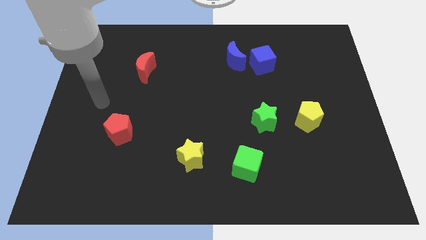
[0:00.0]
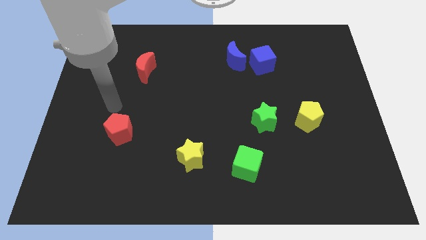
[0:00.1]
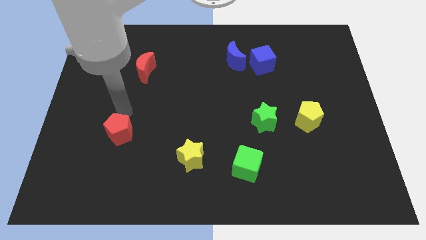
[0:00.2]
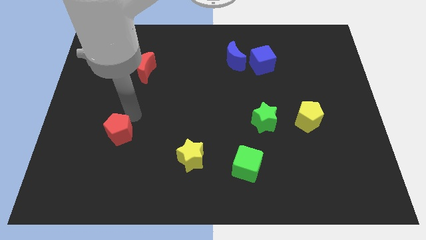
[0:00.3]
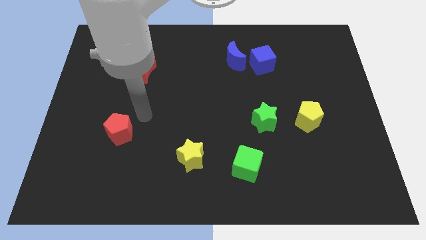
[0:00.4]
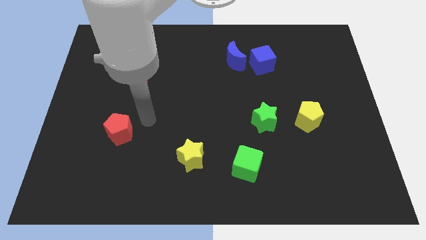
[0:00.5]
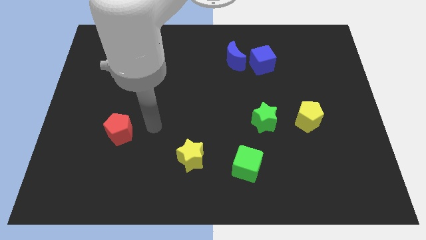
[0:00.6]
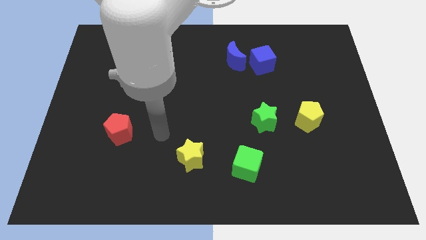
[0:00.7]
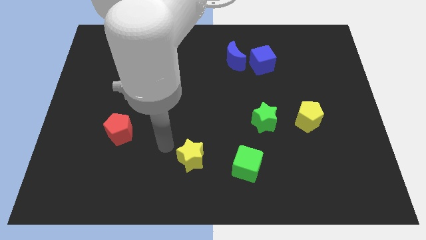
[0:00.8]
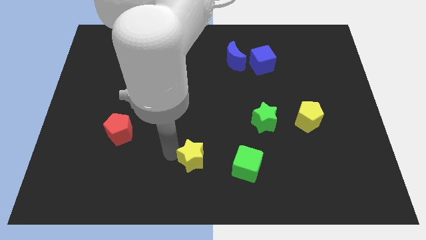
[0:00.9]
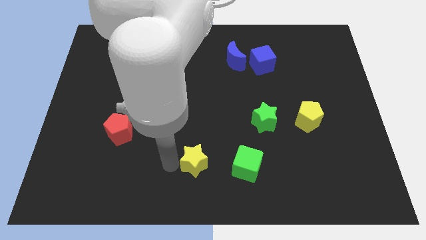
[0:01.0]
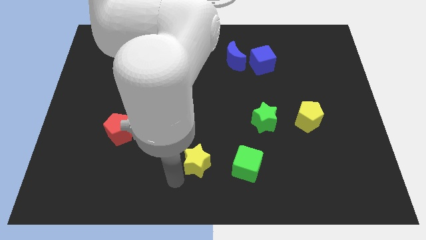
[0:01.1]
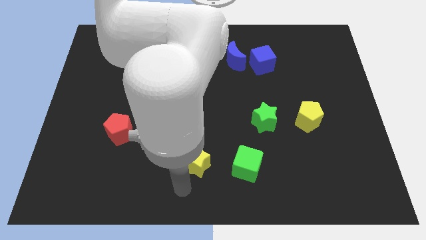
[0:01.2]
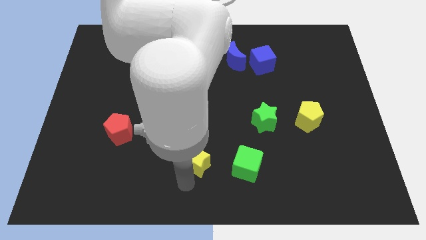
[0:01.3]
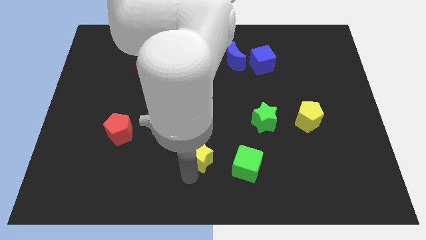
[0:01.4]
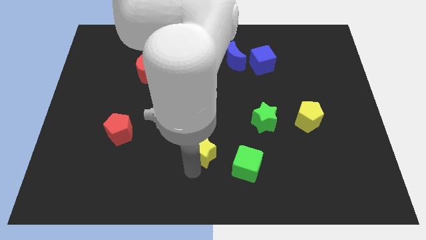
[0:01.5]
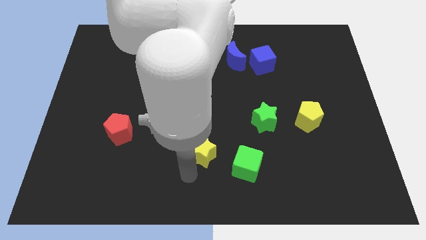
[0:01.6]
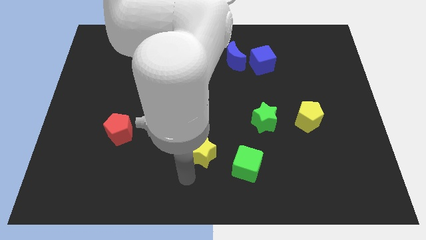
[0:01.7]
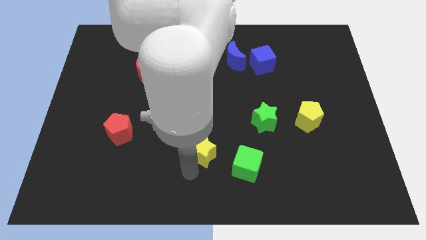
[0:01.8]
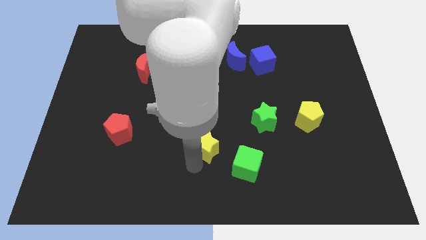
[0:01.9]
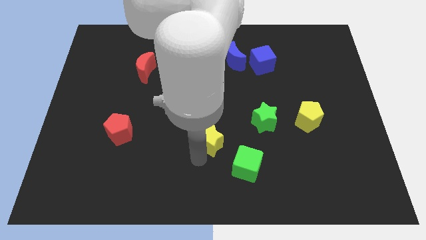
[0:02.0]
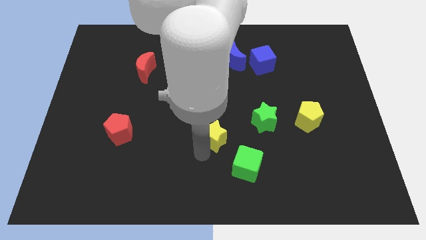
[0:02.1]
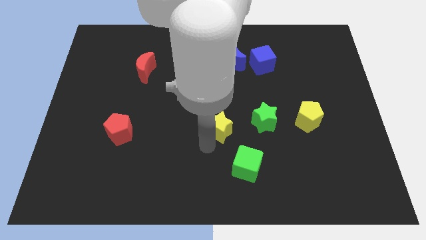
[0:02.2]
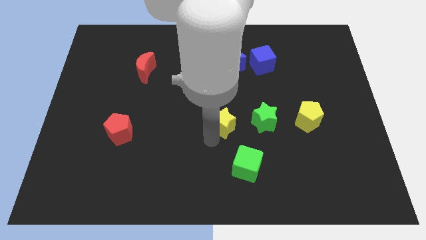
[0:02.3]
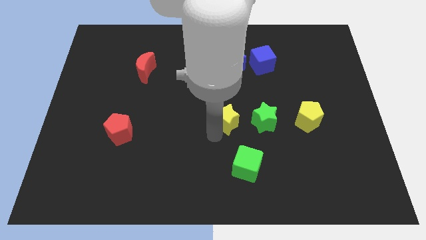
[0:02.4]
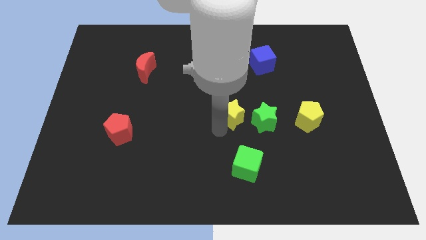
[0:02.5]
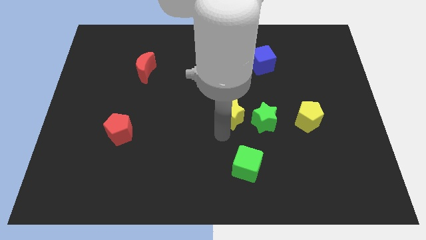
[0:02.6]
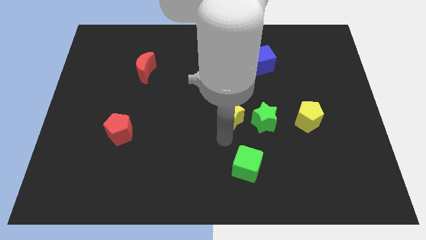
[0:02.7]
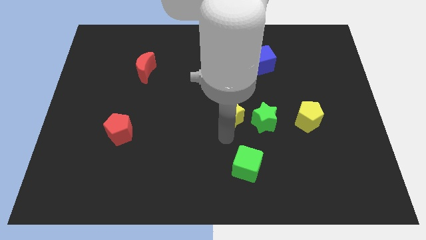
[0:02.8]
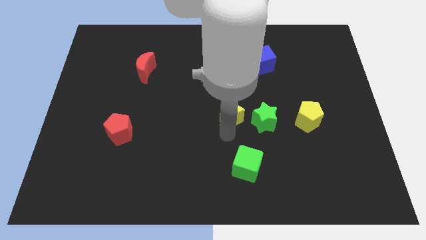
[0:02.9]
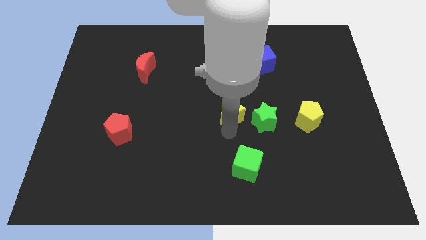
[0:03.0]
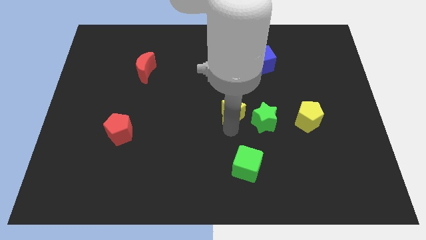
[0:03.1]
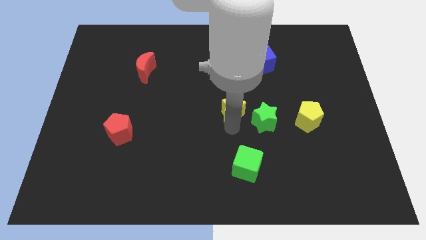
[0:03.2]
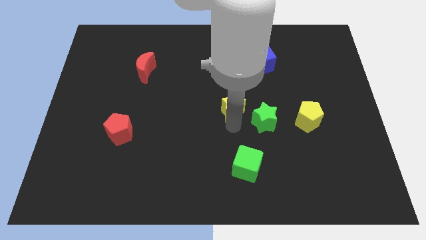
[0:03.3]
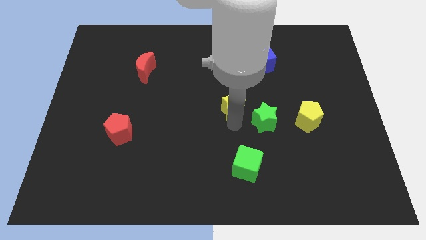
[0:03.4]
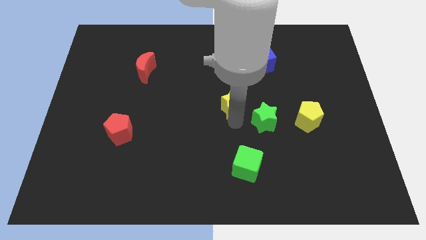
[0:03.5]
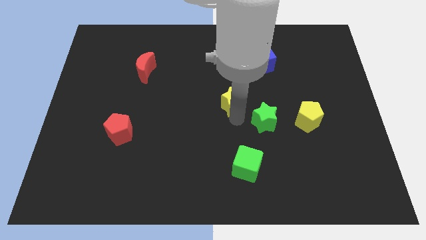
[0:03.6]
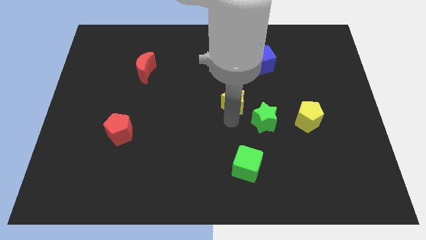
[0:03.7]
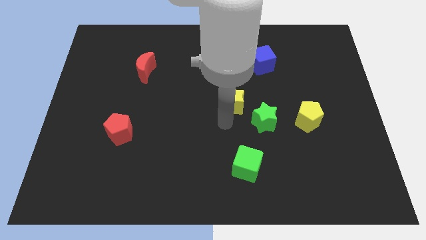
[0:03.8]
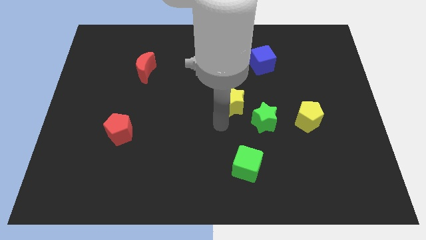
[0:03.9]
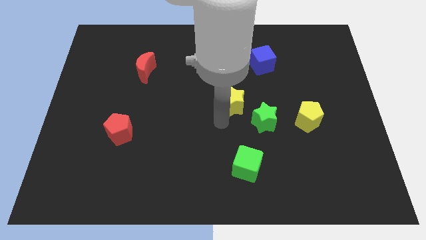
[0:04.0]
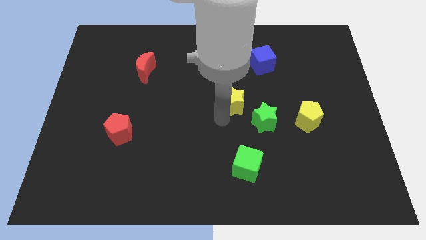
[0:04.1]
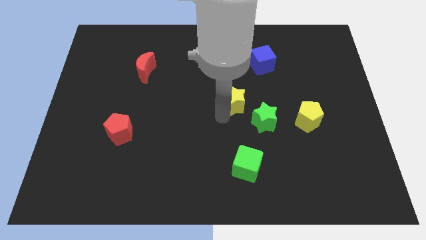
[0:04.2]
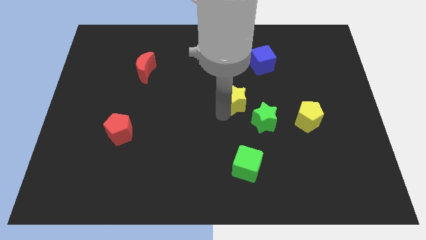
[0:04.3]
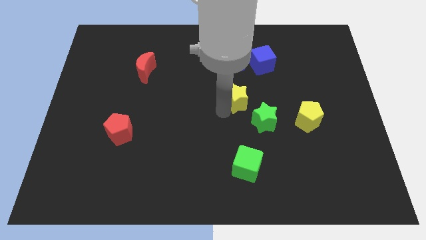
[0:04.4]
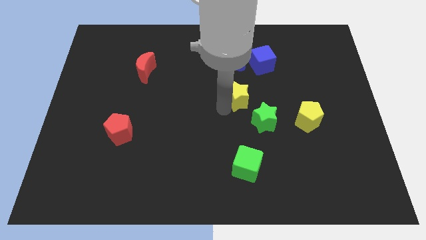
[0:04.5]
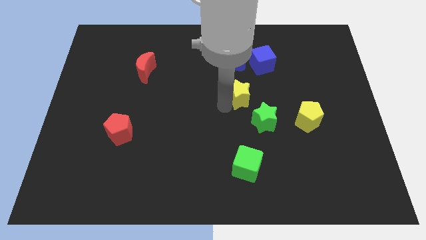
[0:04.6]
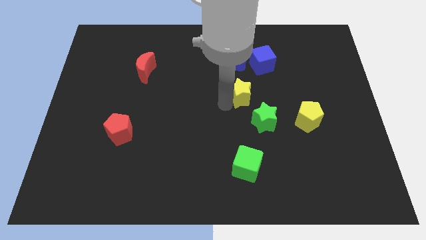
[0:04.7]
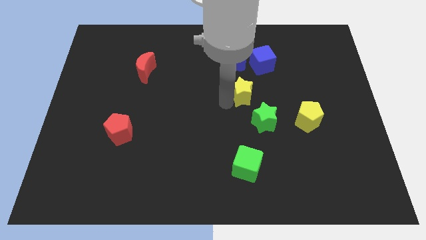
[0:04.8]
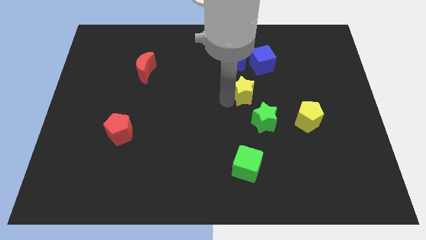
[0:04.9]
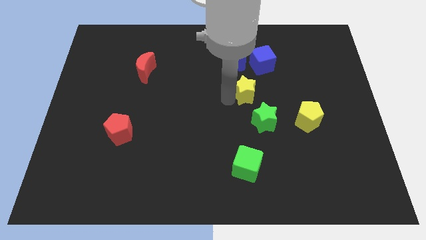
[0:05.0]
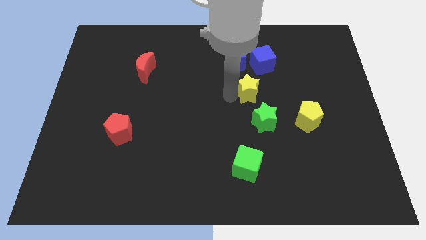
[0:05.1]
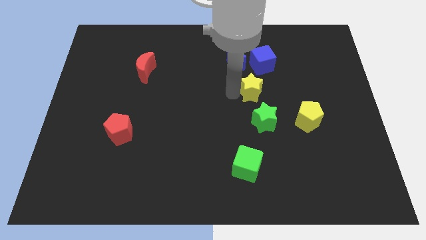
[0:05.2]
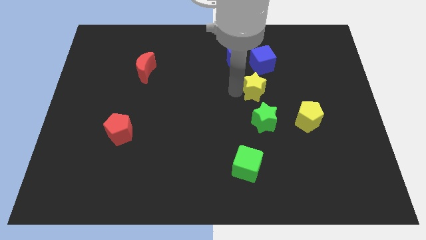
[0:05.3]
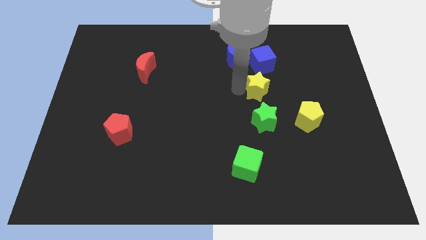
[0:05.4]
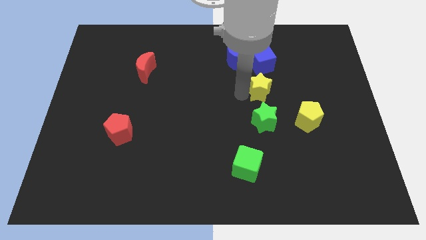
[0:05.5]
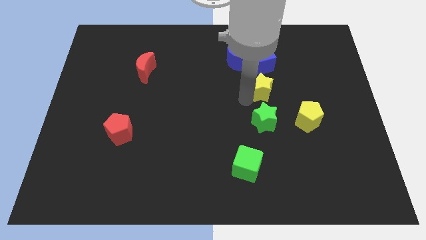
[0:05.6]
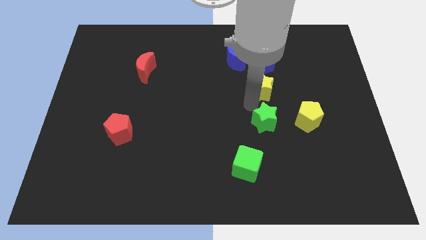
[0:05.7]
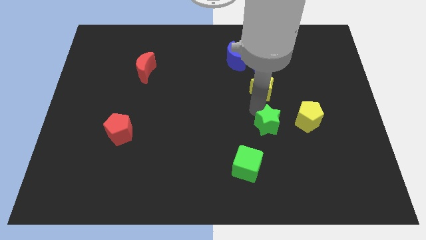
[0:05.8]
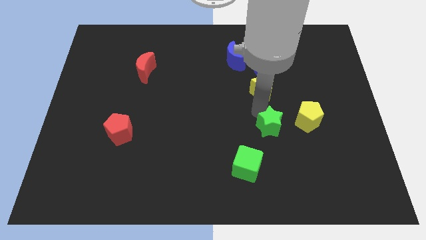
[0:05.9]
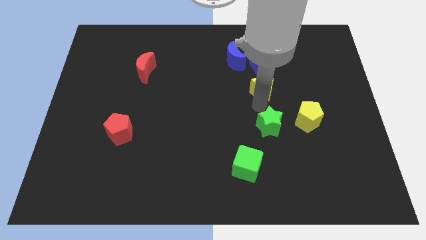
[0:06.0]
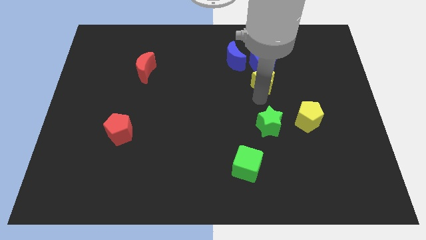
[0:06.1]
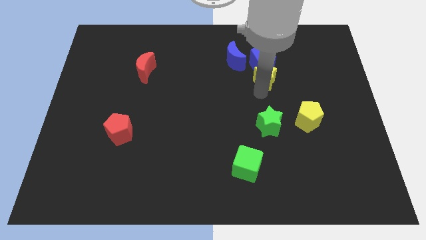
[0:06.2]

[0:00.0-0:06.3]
push the yellow star close to the blue cube

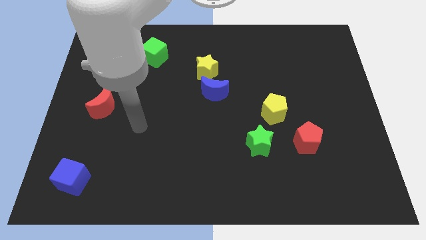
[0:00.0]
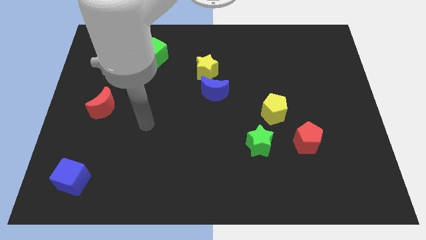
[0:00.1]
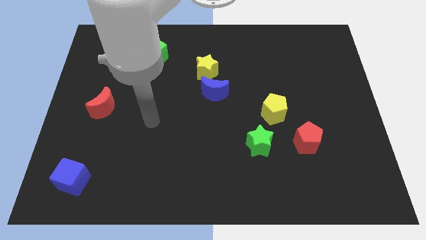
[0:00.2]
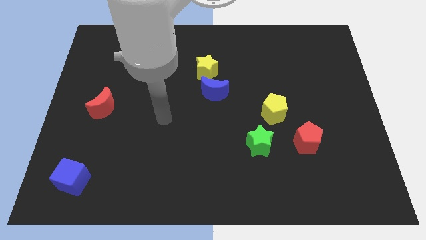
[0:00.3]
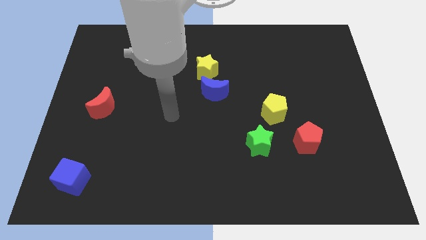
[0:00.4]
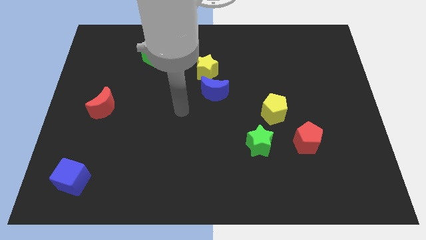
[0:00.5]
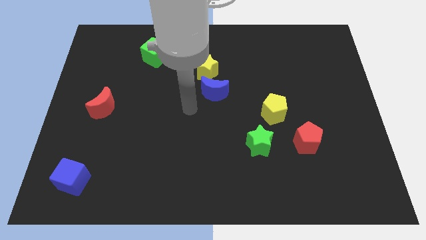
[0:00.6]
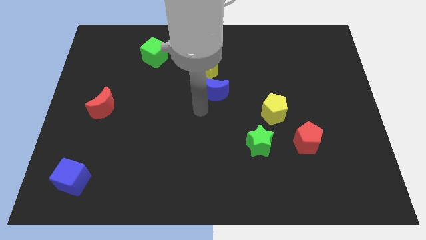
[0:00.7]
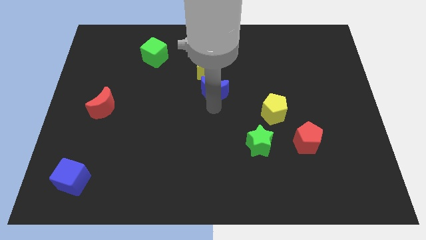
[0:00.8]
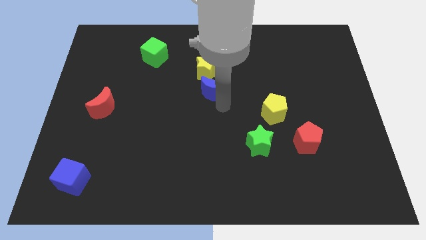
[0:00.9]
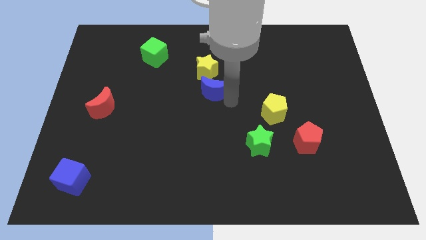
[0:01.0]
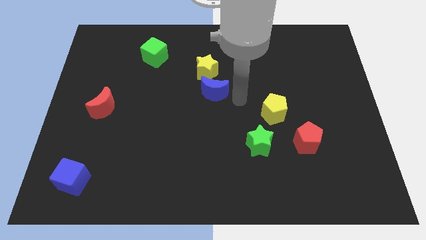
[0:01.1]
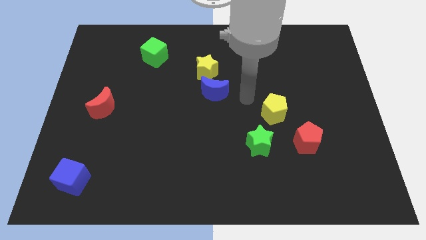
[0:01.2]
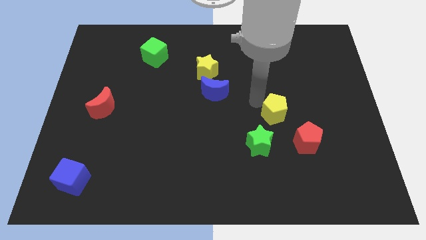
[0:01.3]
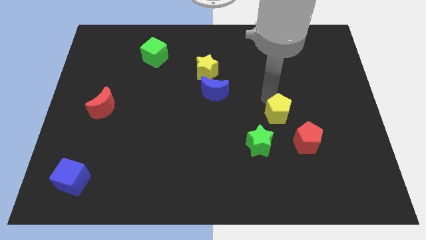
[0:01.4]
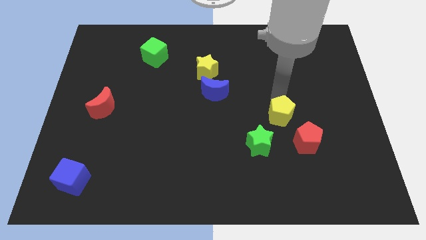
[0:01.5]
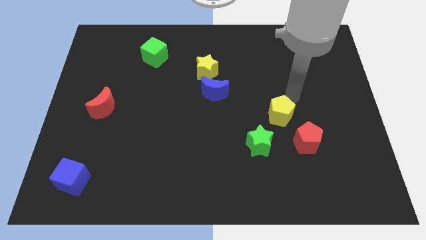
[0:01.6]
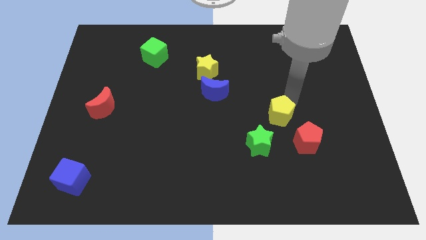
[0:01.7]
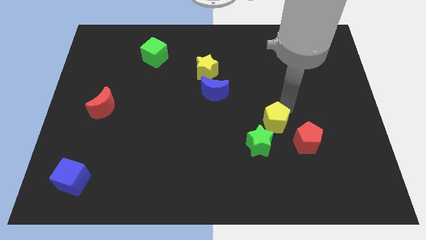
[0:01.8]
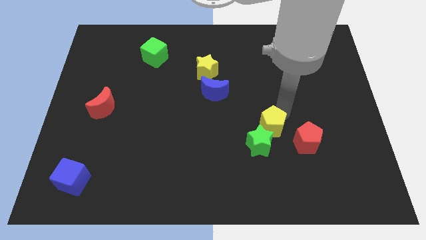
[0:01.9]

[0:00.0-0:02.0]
move the yellow pentagon to the green star
